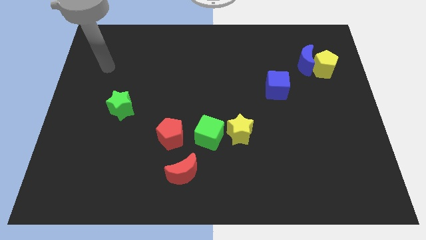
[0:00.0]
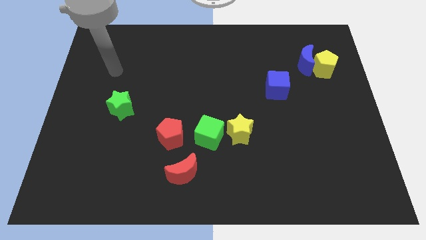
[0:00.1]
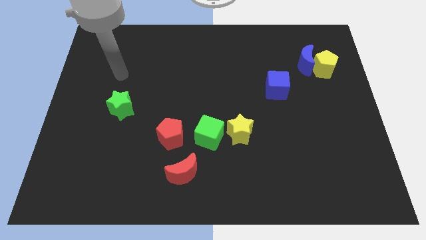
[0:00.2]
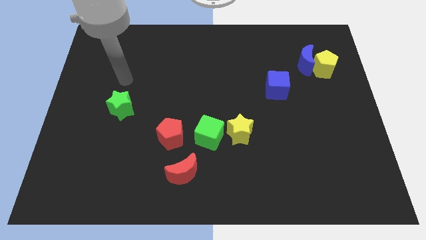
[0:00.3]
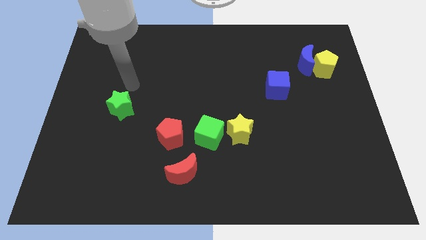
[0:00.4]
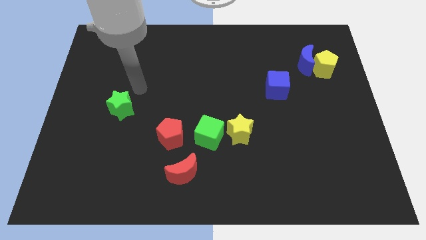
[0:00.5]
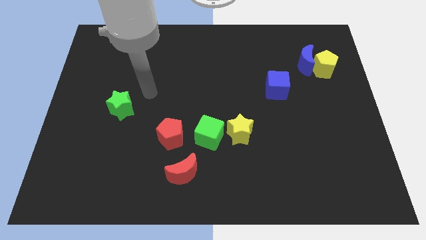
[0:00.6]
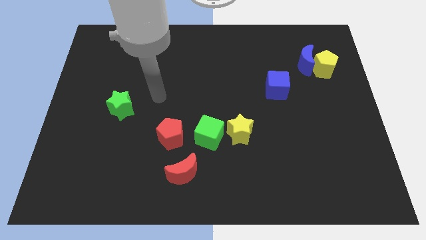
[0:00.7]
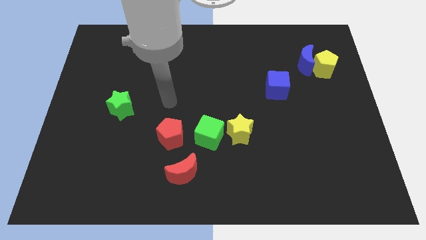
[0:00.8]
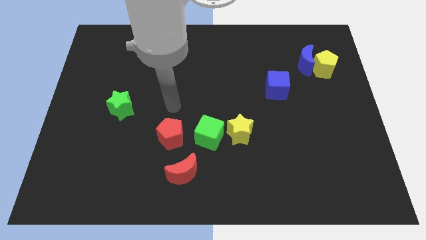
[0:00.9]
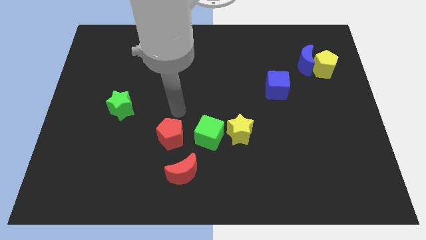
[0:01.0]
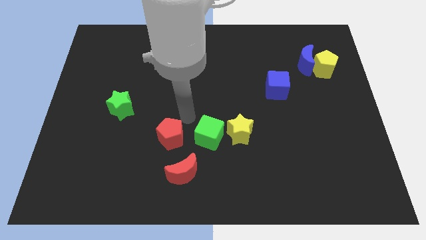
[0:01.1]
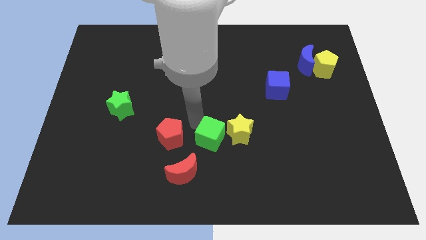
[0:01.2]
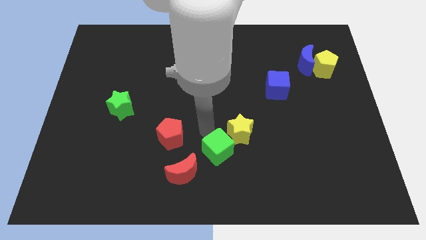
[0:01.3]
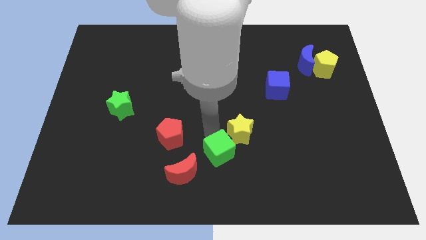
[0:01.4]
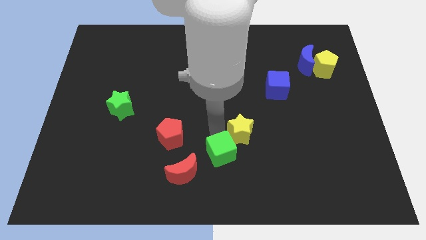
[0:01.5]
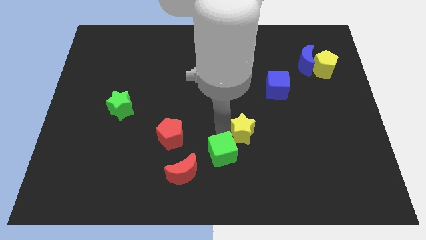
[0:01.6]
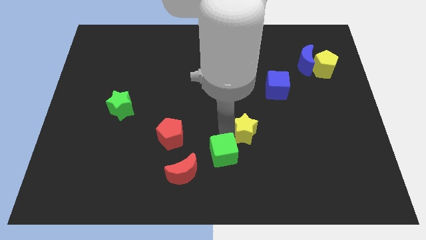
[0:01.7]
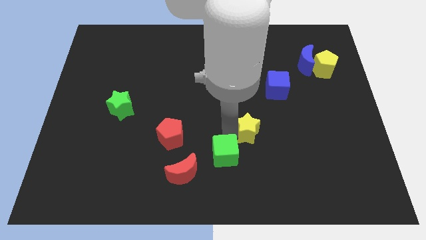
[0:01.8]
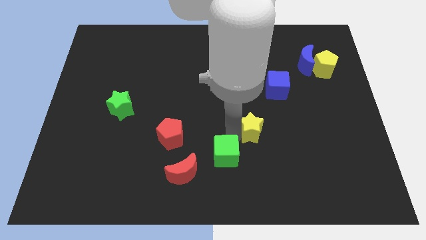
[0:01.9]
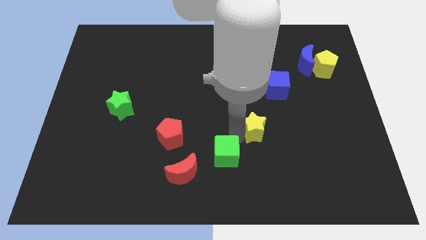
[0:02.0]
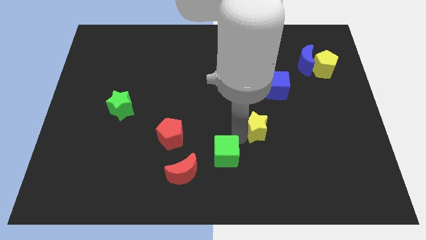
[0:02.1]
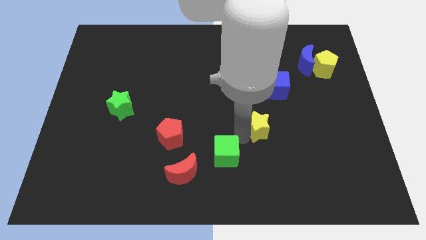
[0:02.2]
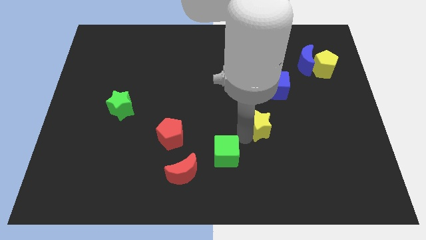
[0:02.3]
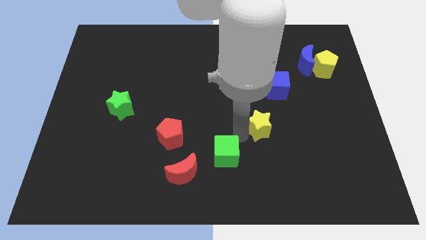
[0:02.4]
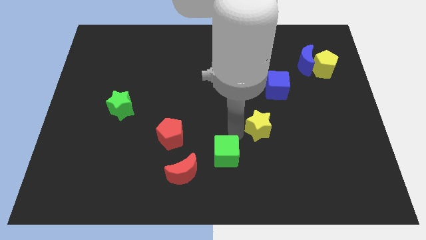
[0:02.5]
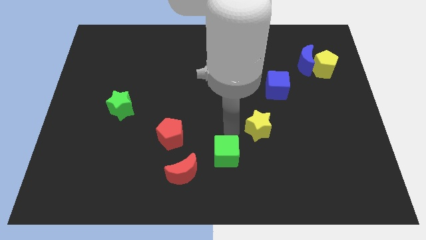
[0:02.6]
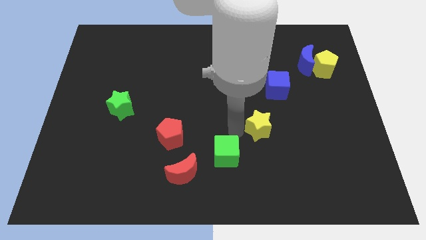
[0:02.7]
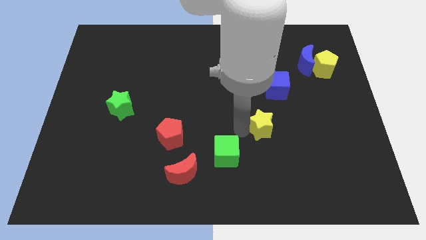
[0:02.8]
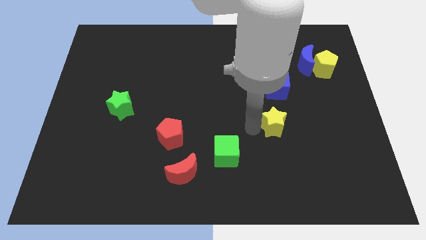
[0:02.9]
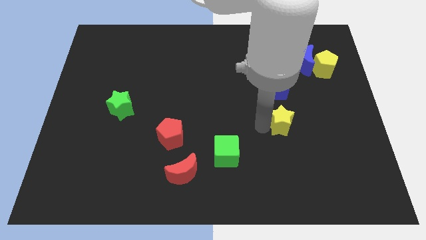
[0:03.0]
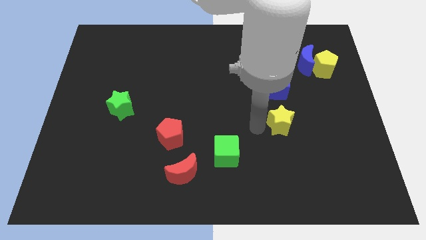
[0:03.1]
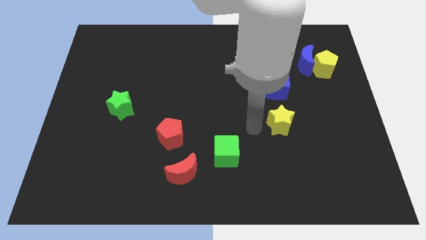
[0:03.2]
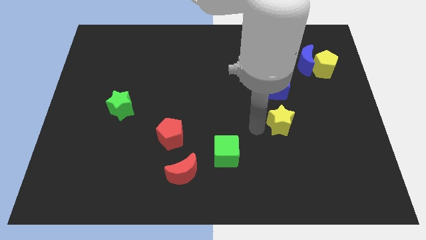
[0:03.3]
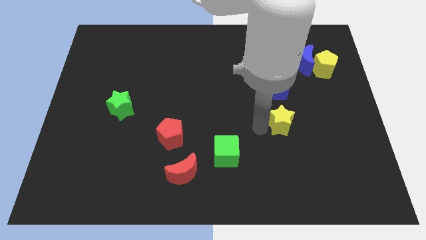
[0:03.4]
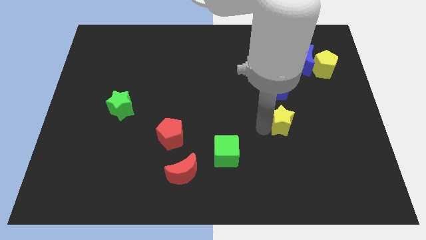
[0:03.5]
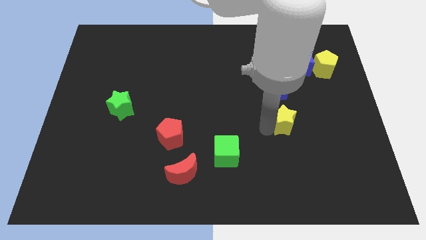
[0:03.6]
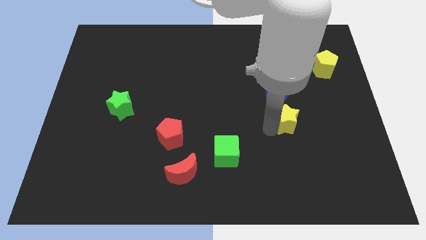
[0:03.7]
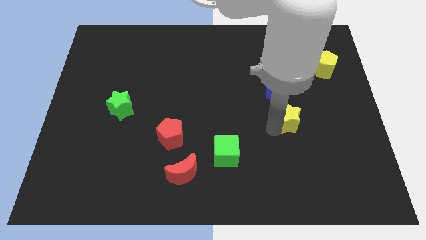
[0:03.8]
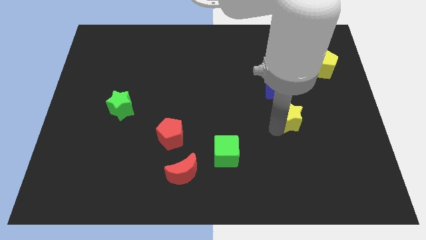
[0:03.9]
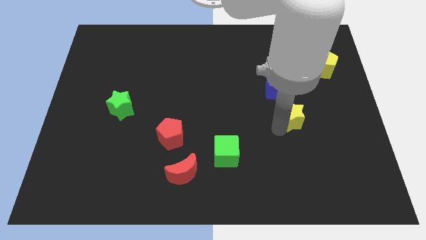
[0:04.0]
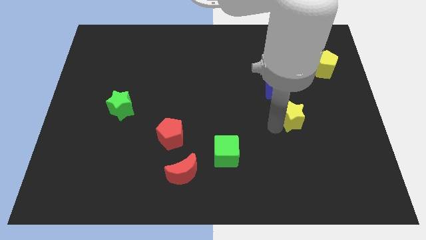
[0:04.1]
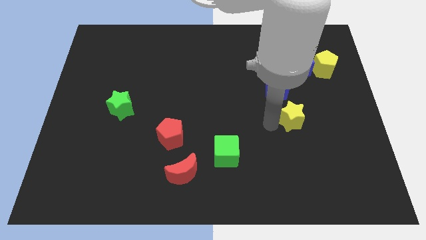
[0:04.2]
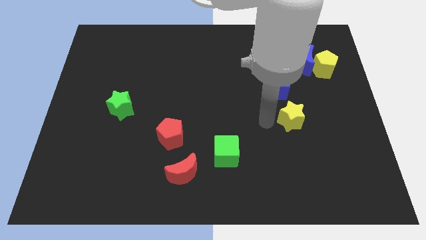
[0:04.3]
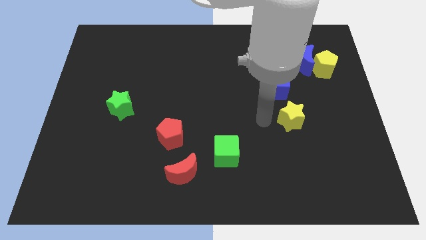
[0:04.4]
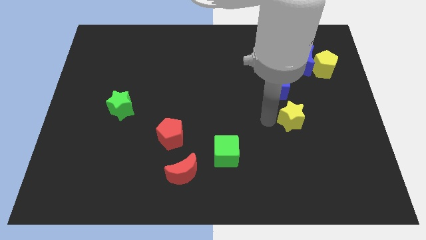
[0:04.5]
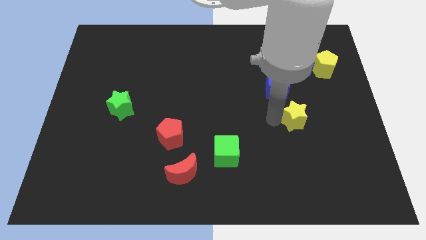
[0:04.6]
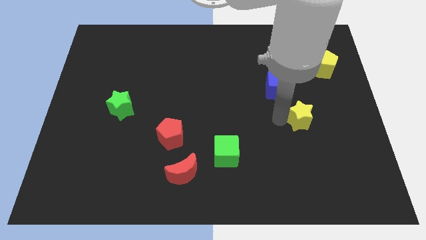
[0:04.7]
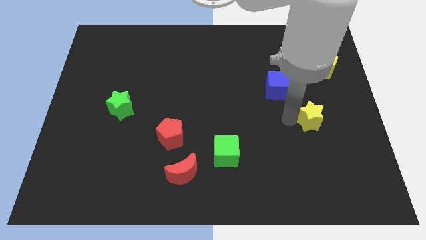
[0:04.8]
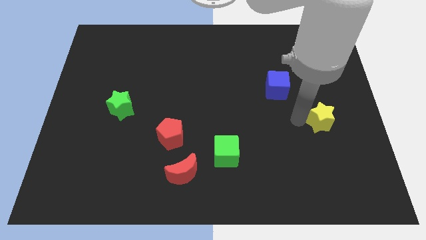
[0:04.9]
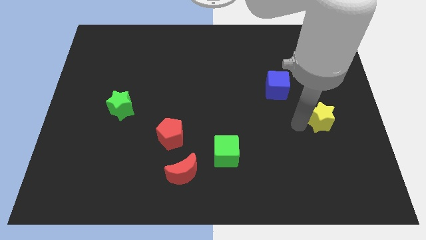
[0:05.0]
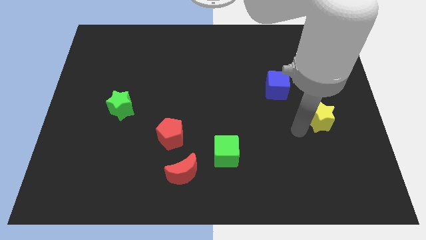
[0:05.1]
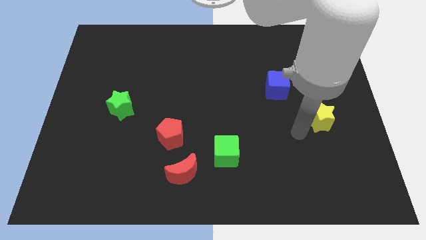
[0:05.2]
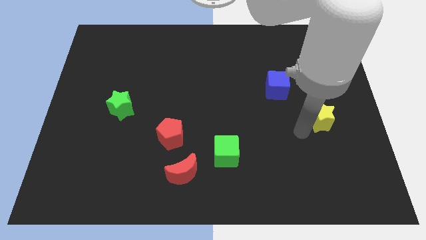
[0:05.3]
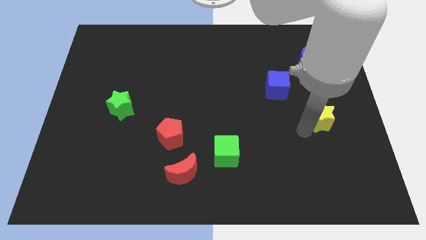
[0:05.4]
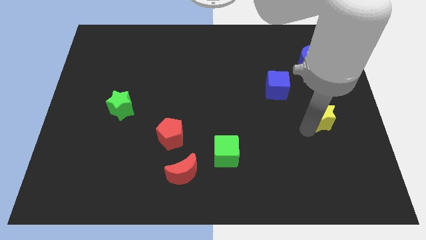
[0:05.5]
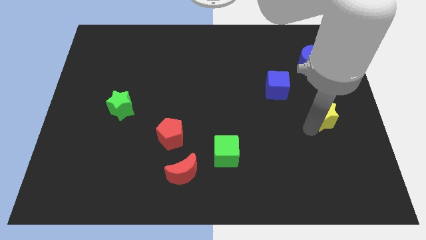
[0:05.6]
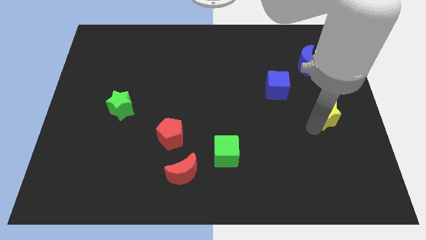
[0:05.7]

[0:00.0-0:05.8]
slide the yellow star to the center right
